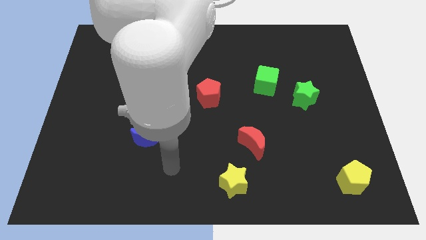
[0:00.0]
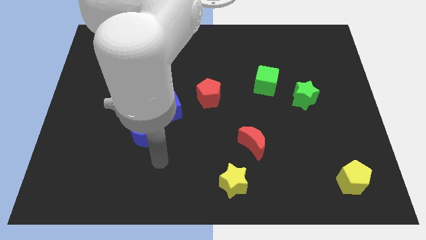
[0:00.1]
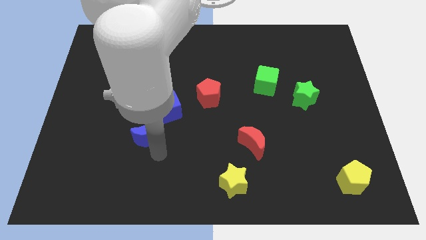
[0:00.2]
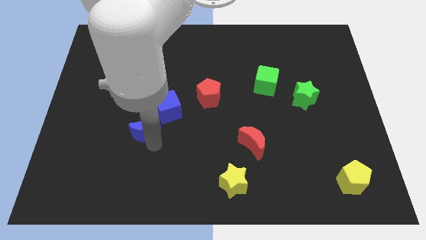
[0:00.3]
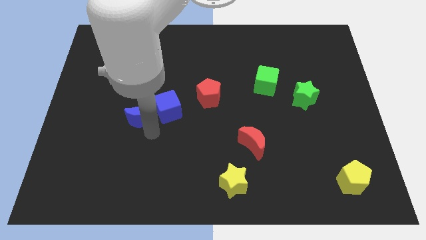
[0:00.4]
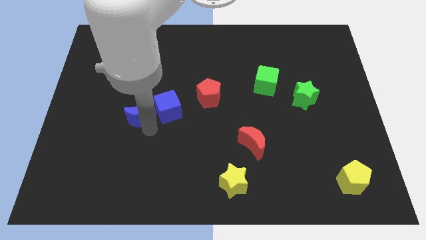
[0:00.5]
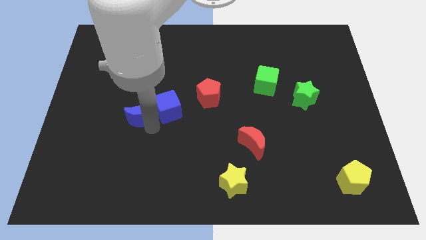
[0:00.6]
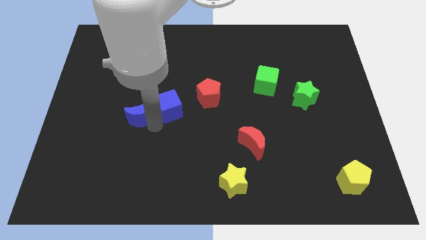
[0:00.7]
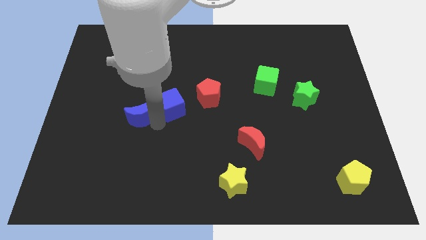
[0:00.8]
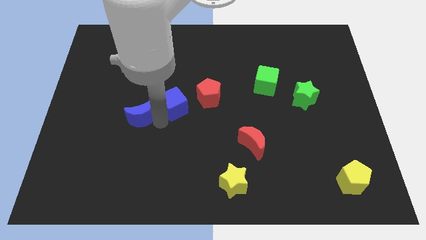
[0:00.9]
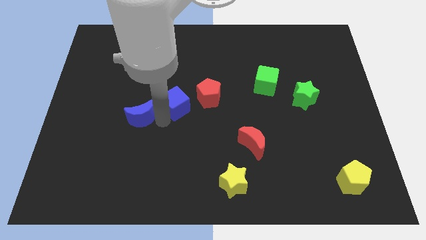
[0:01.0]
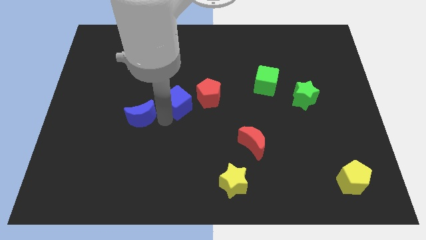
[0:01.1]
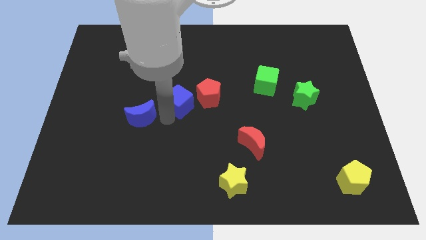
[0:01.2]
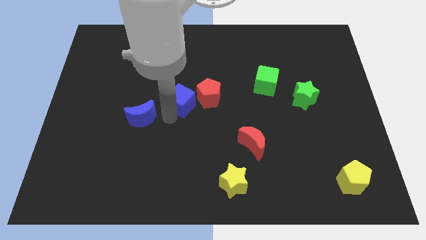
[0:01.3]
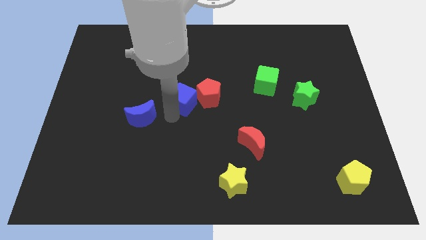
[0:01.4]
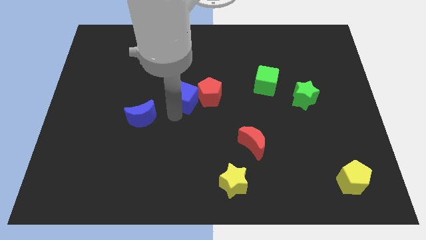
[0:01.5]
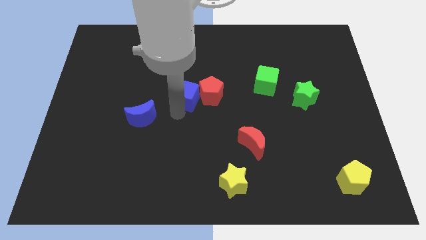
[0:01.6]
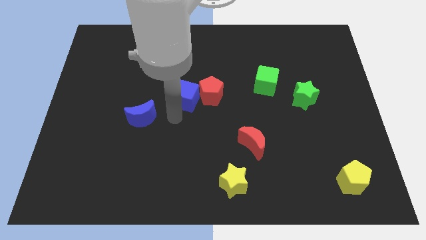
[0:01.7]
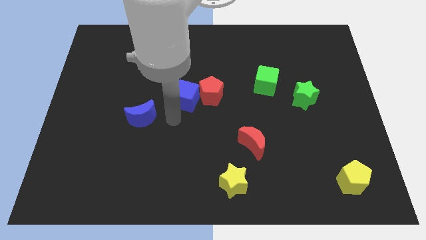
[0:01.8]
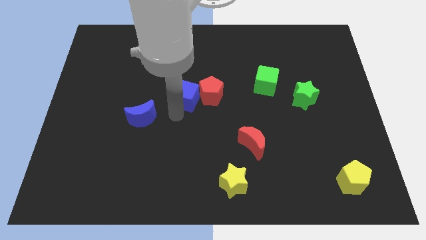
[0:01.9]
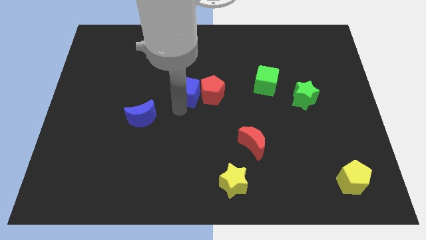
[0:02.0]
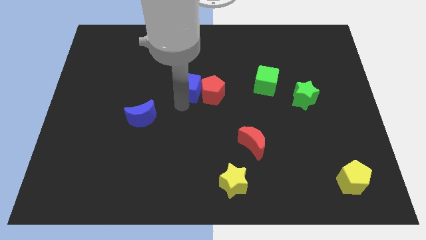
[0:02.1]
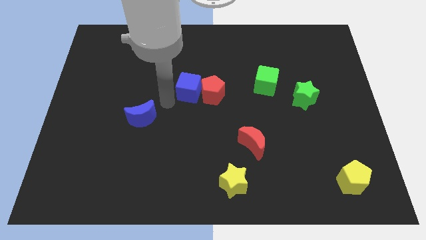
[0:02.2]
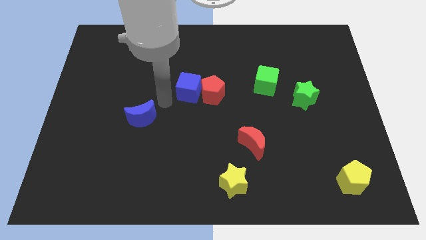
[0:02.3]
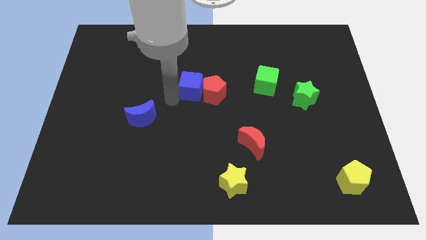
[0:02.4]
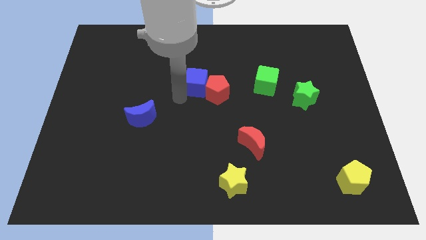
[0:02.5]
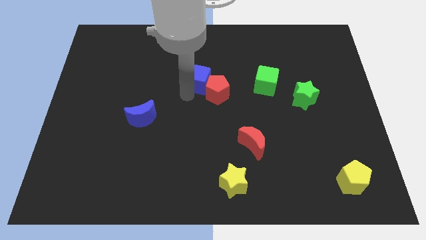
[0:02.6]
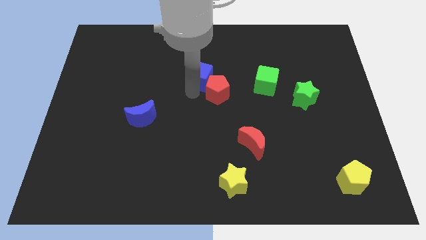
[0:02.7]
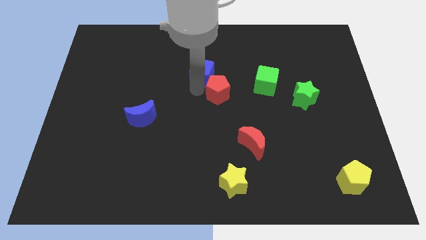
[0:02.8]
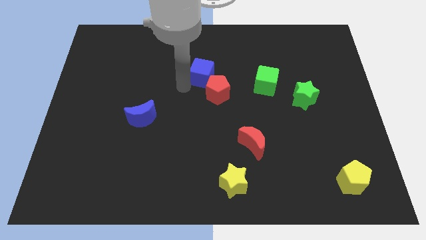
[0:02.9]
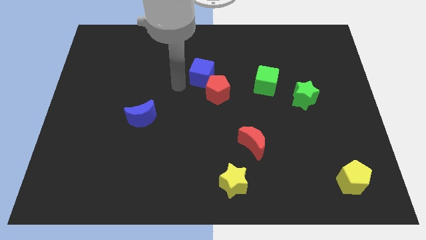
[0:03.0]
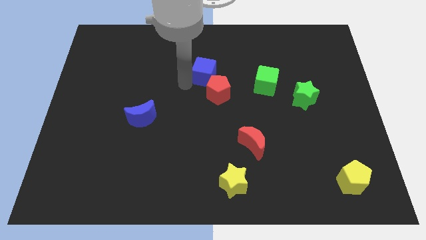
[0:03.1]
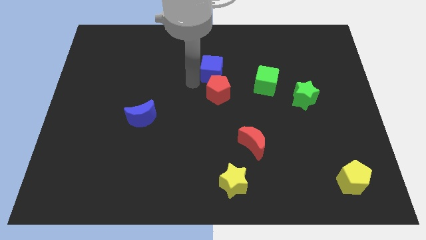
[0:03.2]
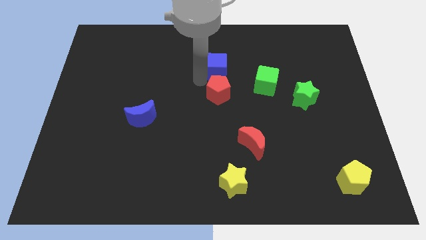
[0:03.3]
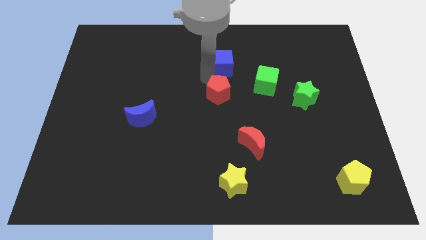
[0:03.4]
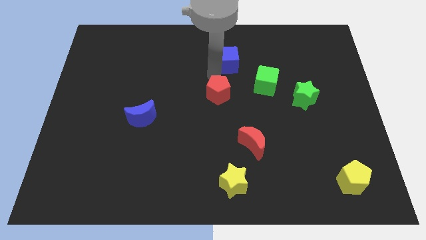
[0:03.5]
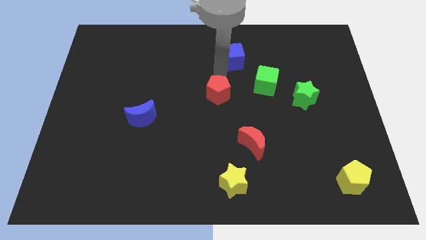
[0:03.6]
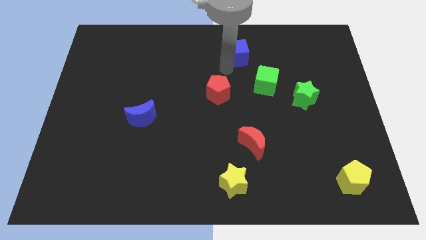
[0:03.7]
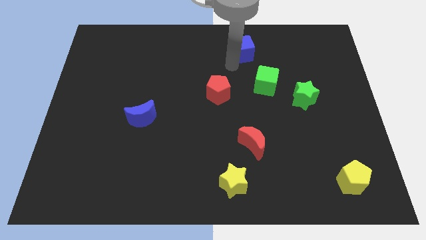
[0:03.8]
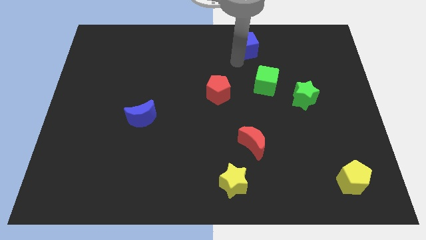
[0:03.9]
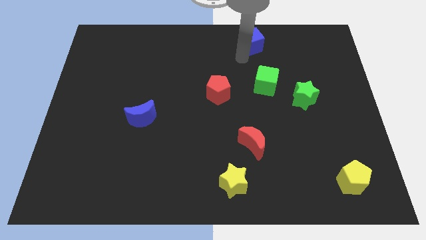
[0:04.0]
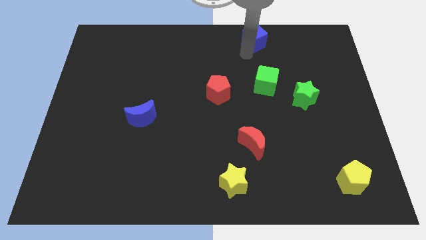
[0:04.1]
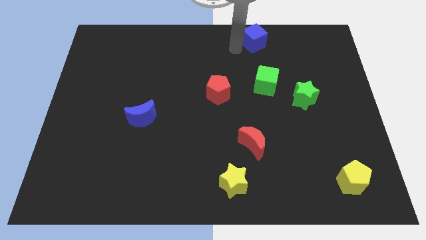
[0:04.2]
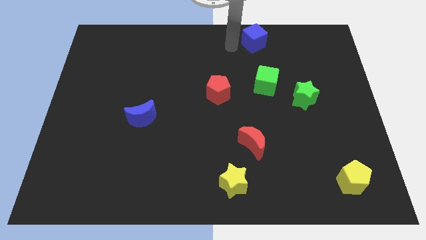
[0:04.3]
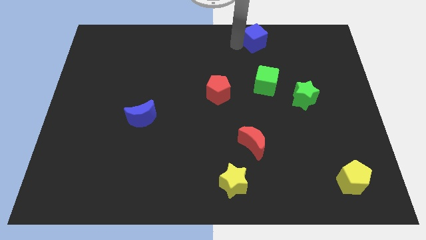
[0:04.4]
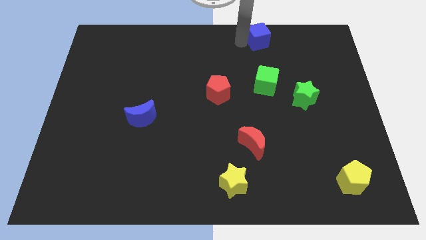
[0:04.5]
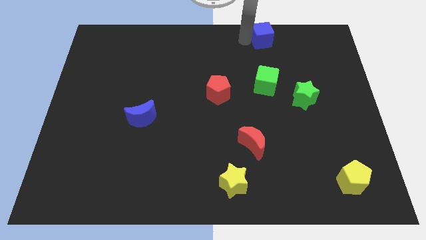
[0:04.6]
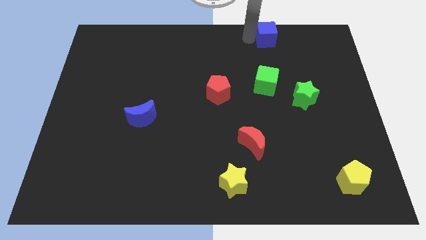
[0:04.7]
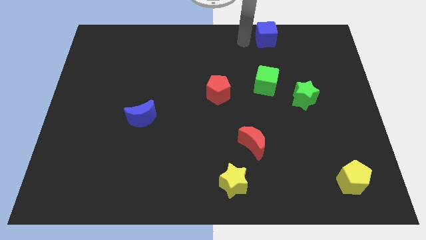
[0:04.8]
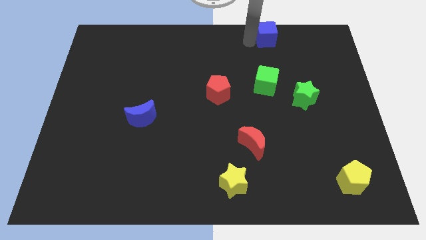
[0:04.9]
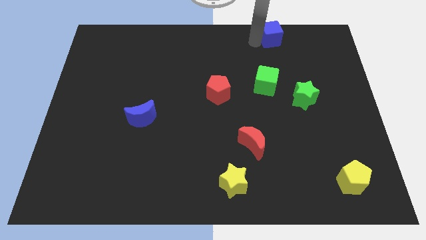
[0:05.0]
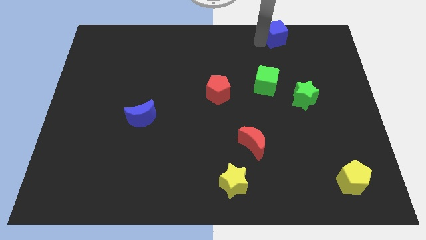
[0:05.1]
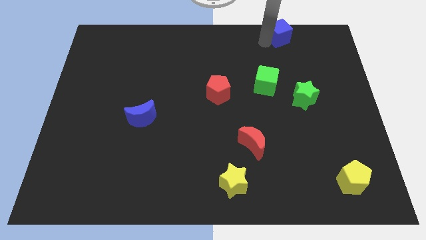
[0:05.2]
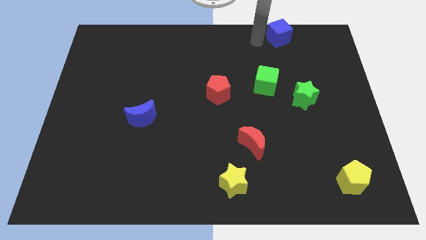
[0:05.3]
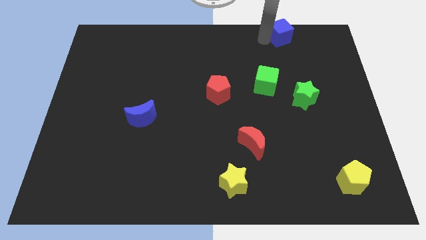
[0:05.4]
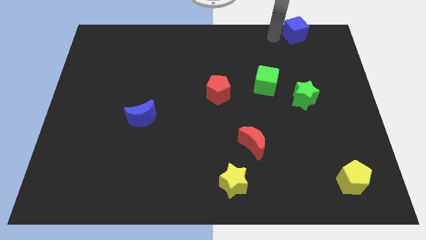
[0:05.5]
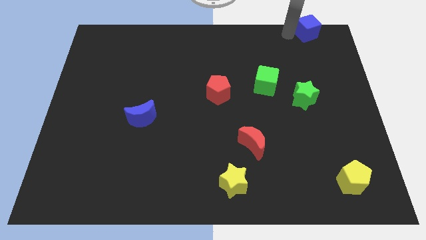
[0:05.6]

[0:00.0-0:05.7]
push the blue cube to the top right

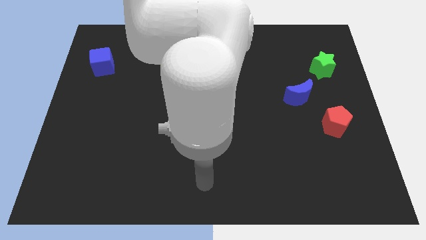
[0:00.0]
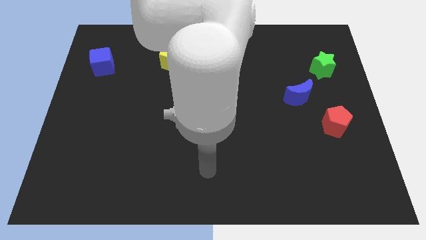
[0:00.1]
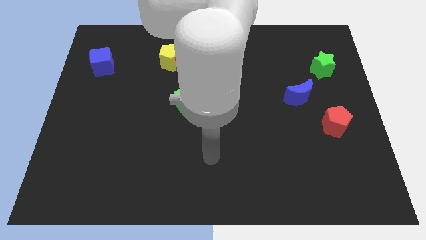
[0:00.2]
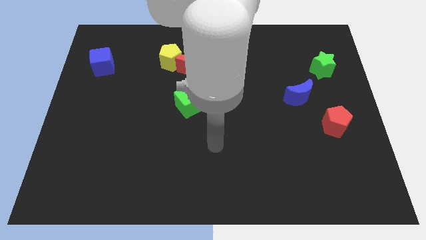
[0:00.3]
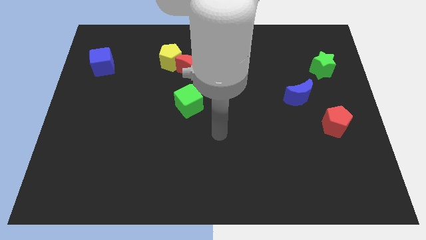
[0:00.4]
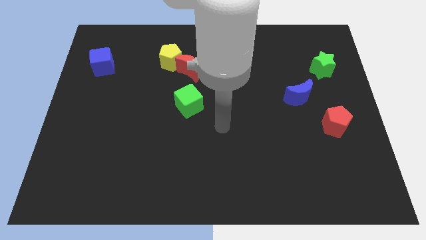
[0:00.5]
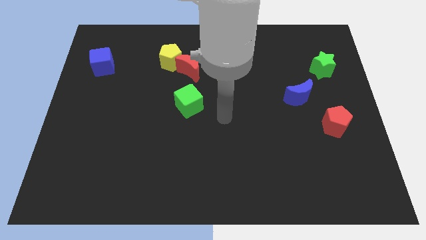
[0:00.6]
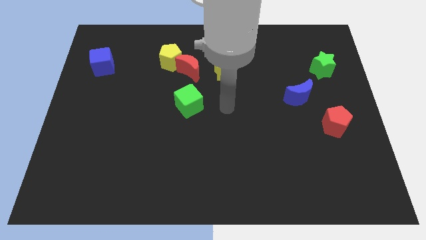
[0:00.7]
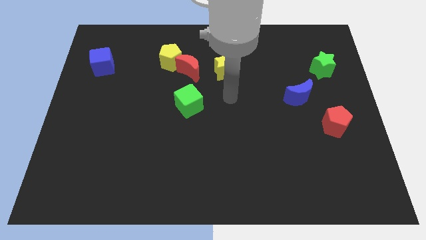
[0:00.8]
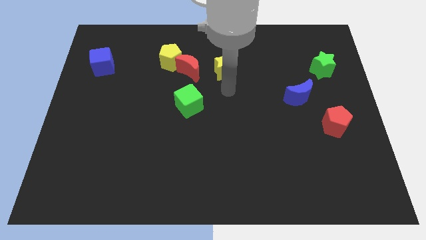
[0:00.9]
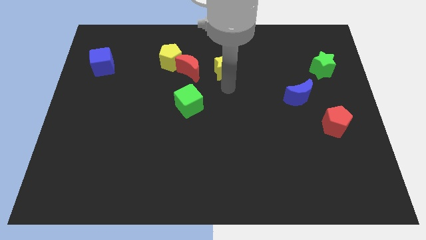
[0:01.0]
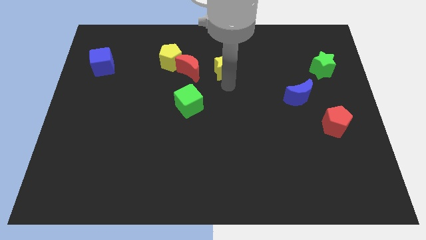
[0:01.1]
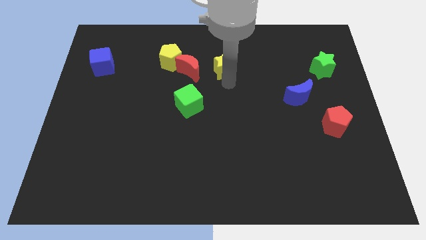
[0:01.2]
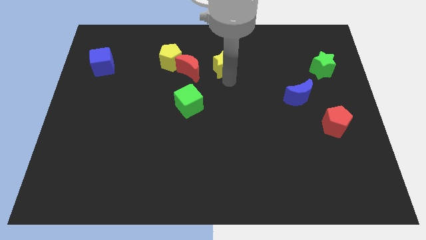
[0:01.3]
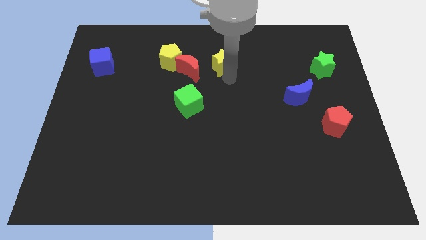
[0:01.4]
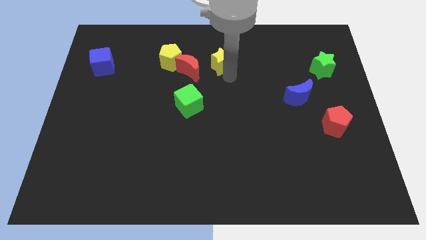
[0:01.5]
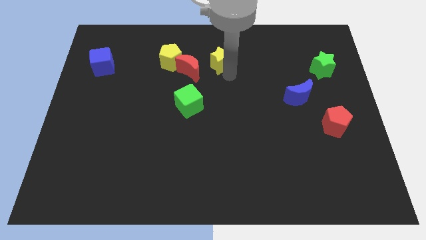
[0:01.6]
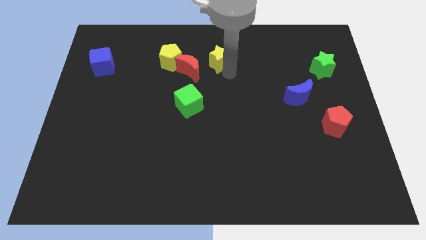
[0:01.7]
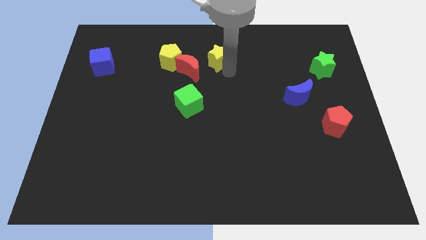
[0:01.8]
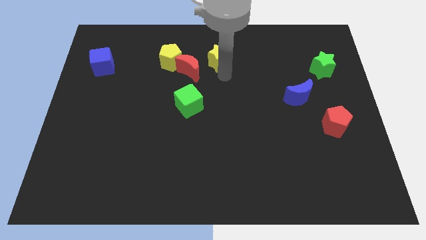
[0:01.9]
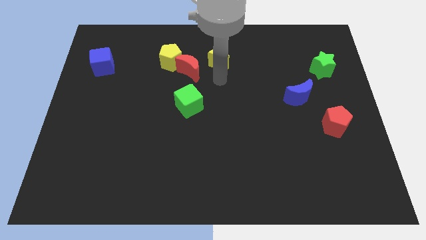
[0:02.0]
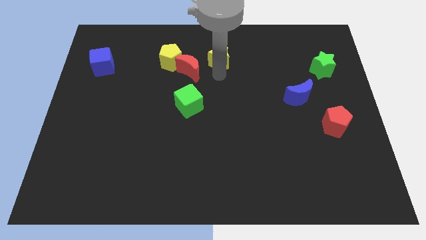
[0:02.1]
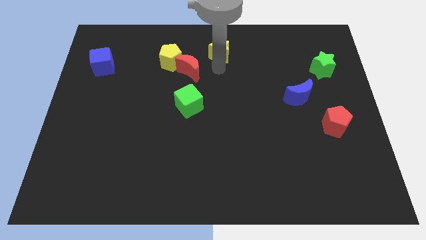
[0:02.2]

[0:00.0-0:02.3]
slide the yellow star to the towards your base
